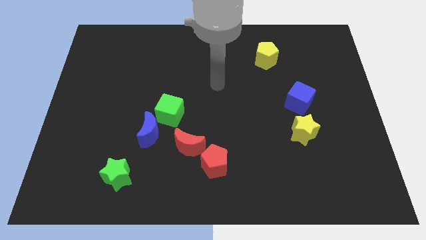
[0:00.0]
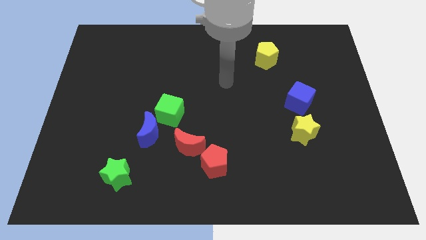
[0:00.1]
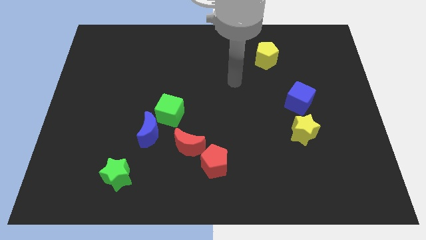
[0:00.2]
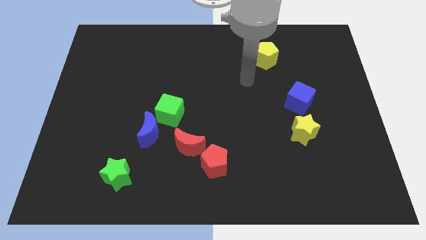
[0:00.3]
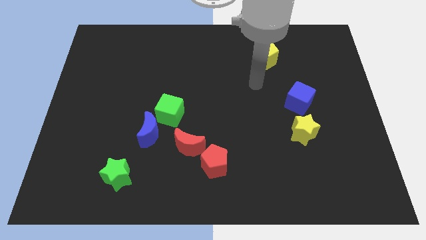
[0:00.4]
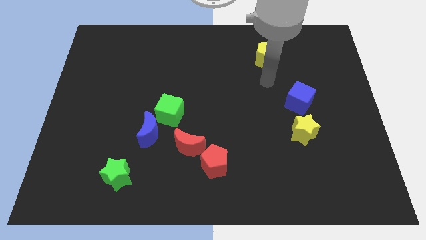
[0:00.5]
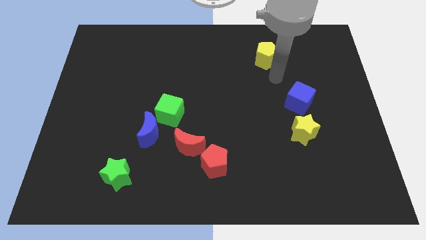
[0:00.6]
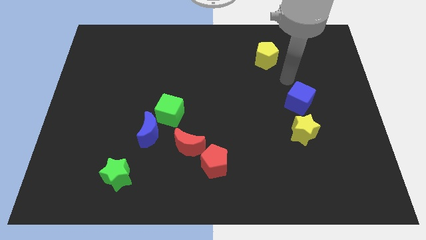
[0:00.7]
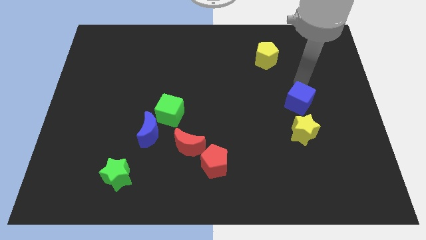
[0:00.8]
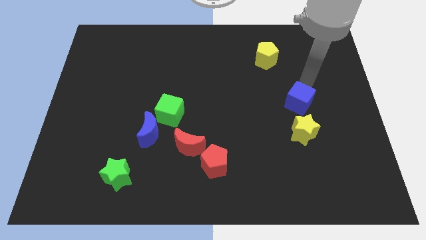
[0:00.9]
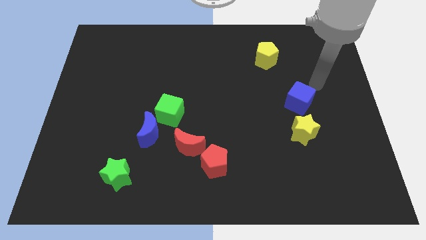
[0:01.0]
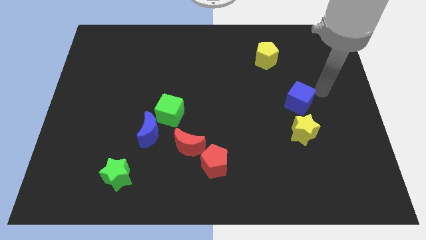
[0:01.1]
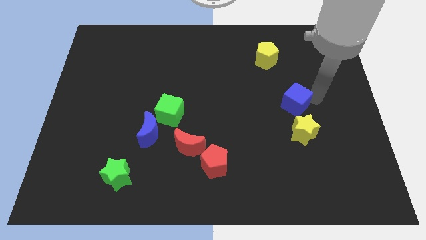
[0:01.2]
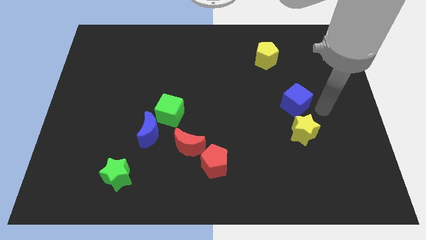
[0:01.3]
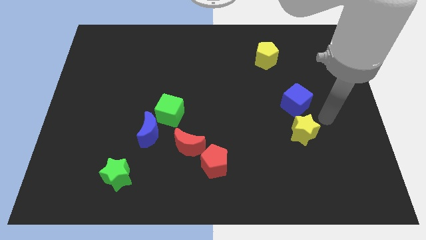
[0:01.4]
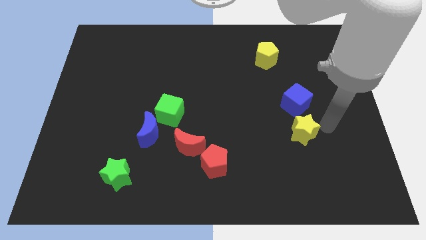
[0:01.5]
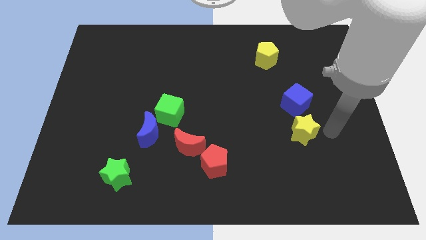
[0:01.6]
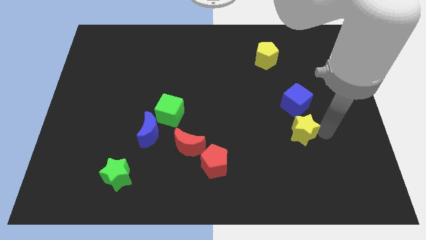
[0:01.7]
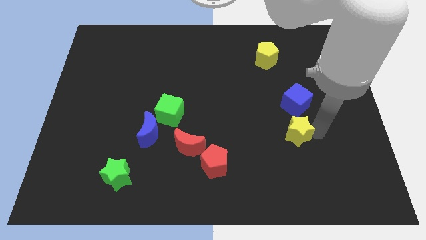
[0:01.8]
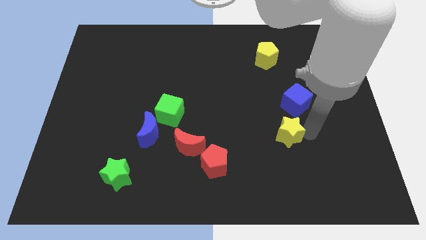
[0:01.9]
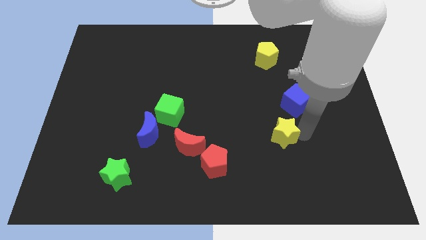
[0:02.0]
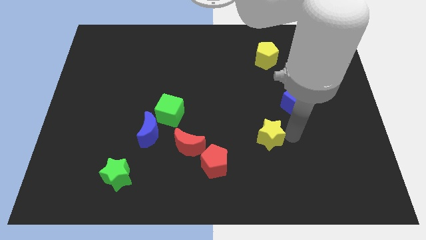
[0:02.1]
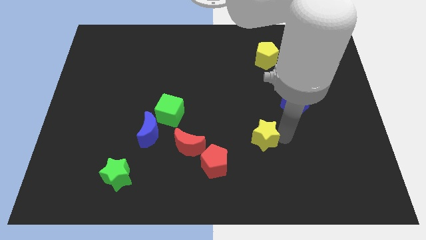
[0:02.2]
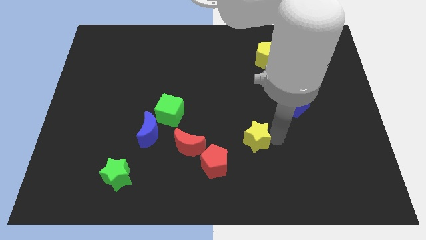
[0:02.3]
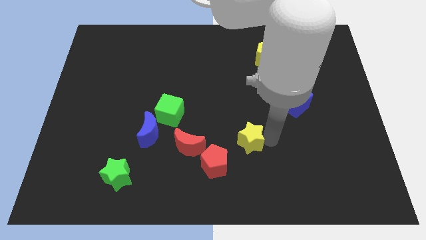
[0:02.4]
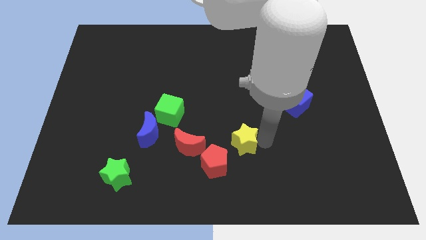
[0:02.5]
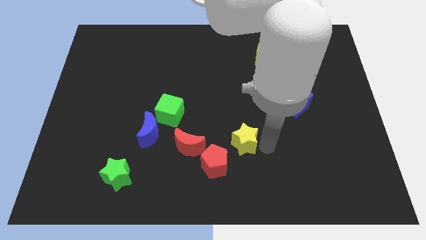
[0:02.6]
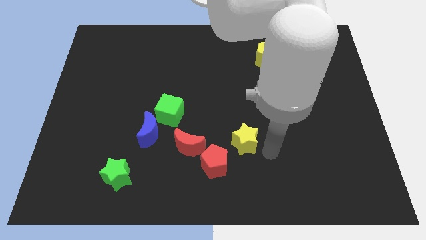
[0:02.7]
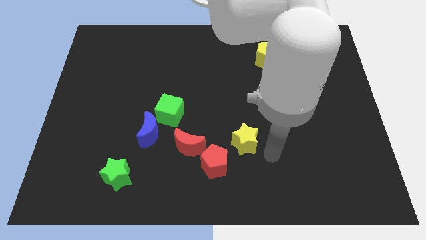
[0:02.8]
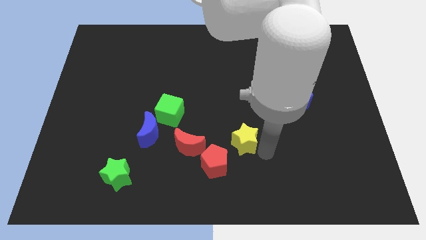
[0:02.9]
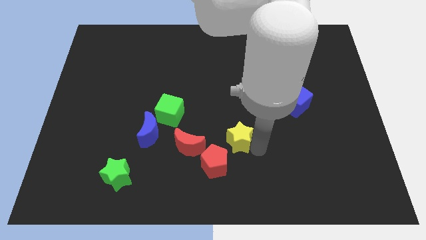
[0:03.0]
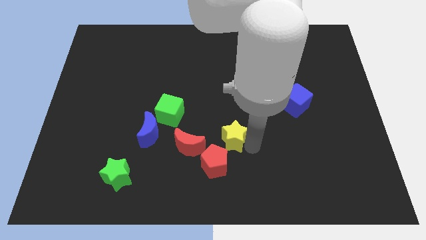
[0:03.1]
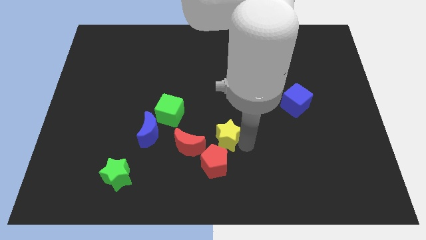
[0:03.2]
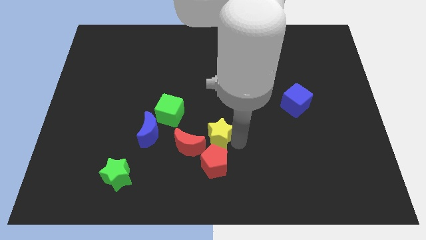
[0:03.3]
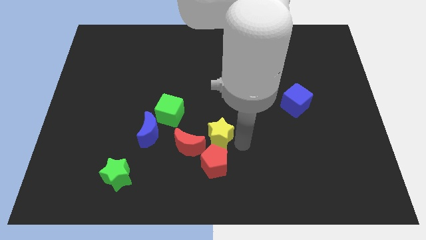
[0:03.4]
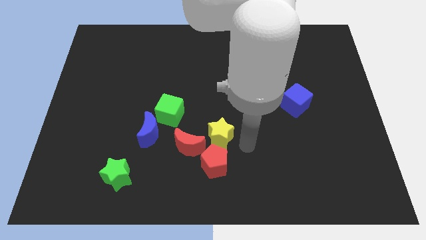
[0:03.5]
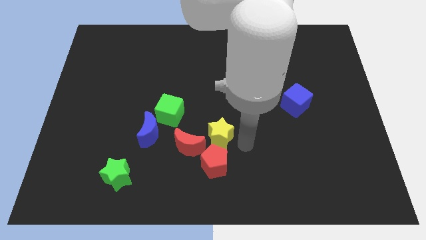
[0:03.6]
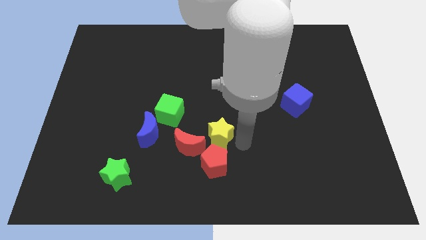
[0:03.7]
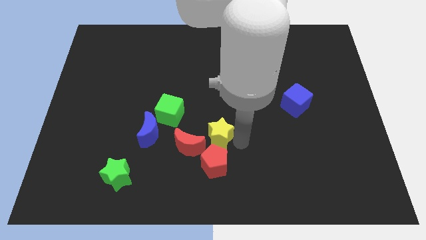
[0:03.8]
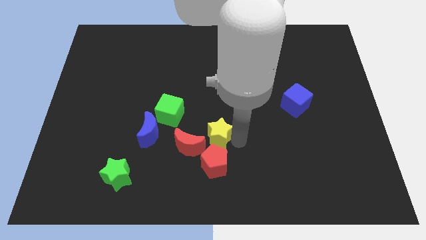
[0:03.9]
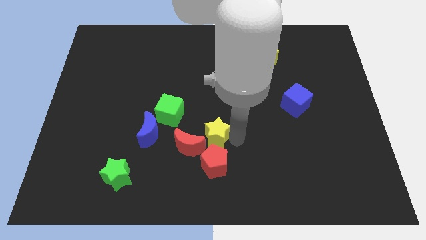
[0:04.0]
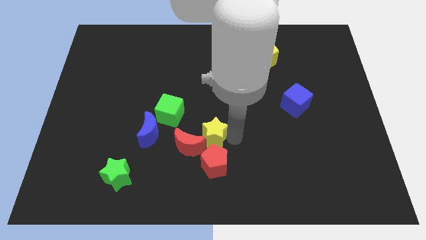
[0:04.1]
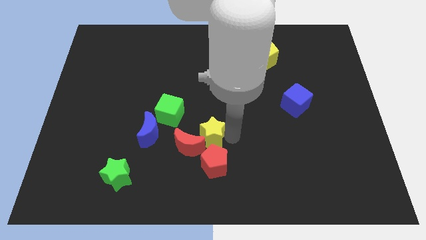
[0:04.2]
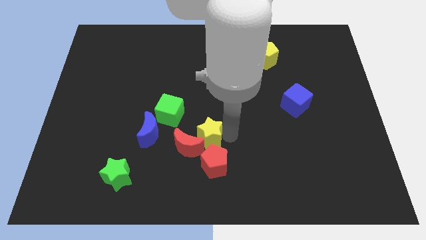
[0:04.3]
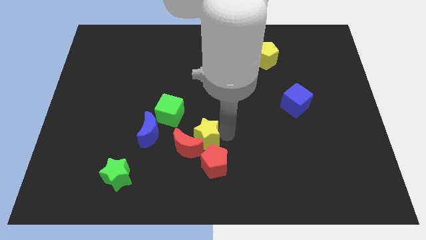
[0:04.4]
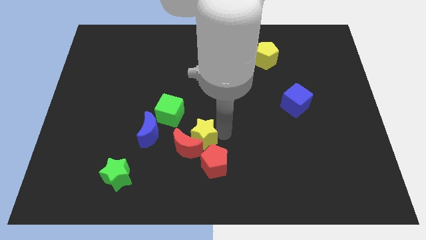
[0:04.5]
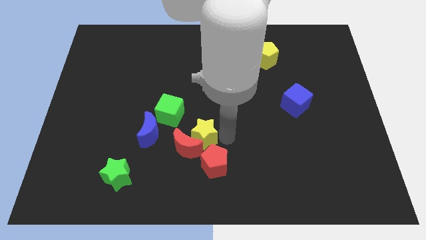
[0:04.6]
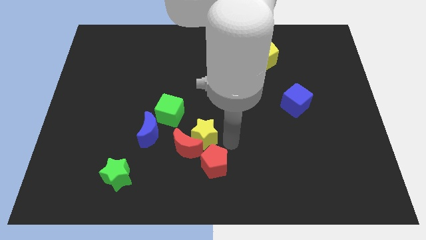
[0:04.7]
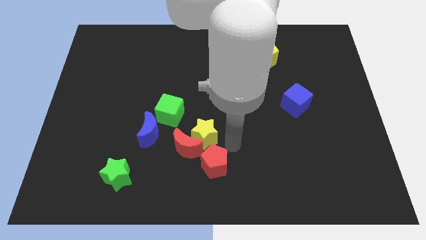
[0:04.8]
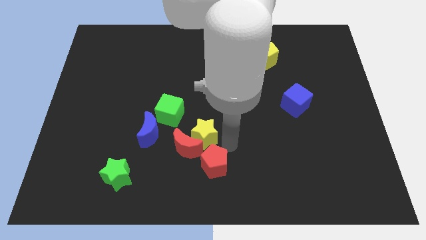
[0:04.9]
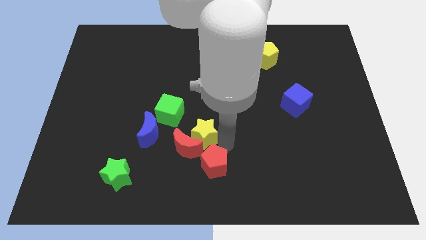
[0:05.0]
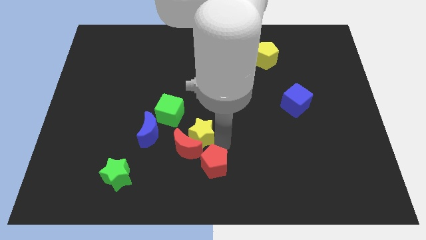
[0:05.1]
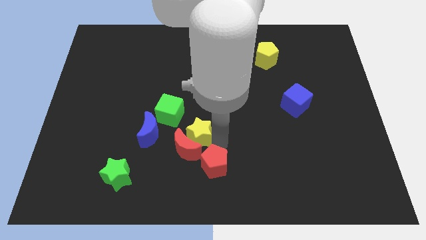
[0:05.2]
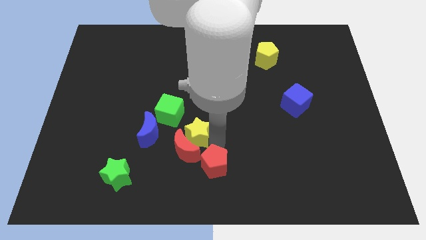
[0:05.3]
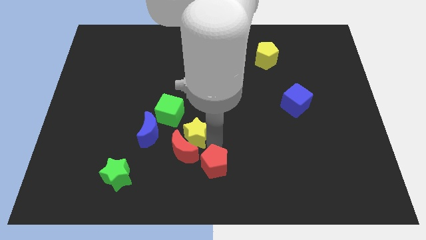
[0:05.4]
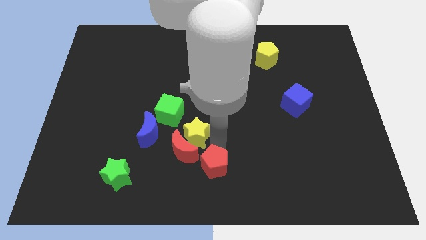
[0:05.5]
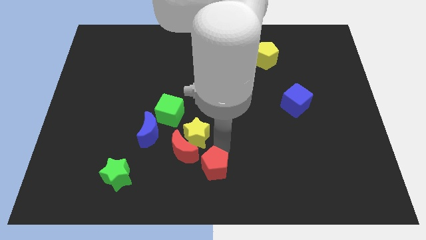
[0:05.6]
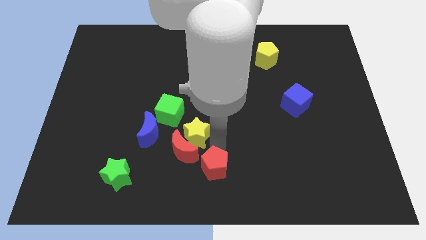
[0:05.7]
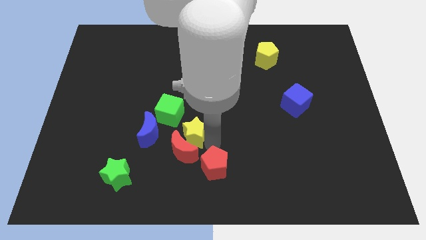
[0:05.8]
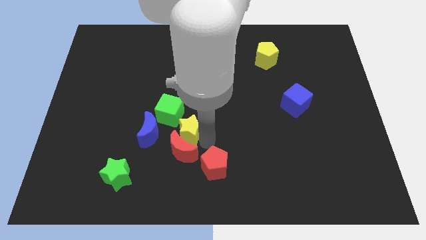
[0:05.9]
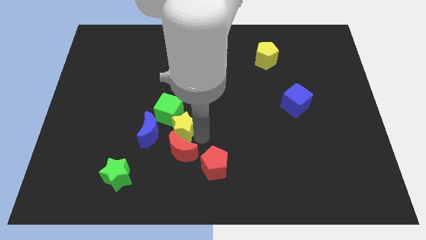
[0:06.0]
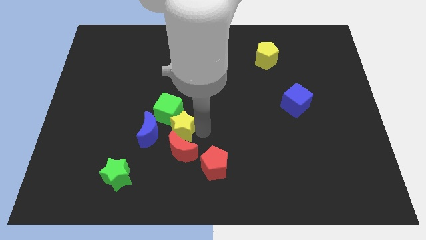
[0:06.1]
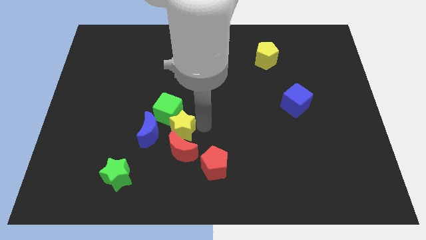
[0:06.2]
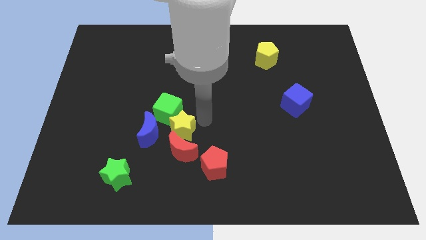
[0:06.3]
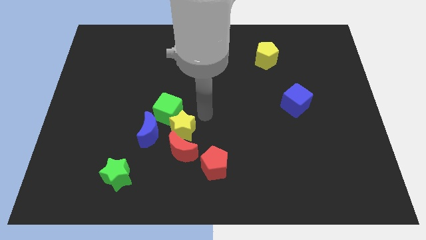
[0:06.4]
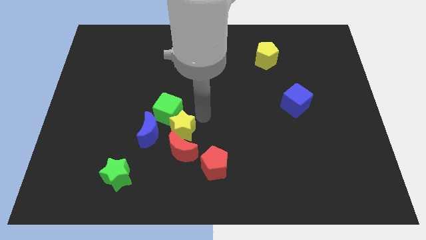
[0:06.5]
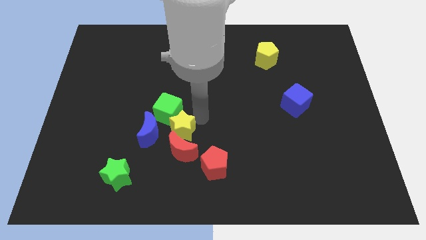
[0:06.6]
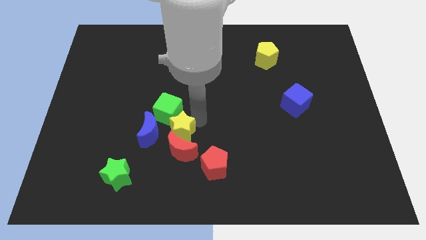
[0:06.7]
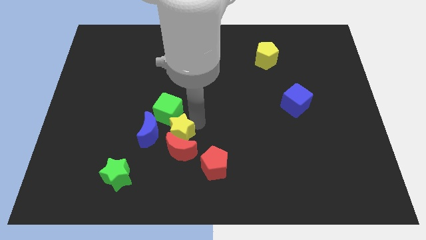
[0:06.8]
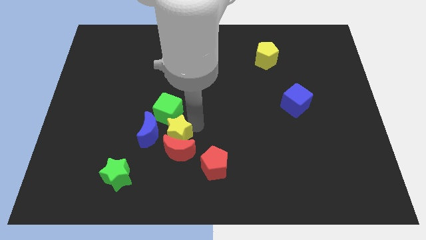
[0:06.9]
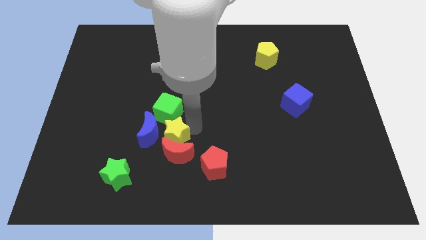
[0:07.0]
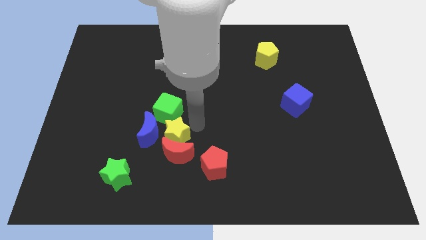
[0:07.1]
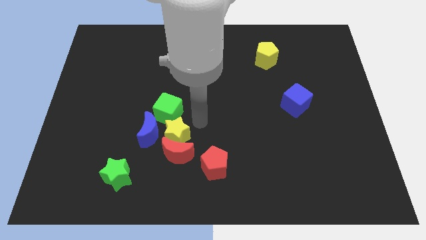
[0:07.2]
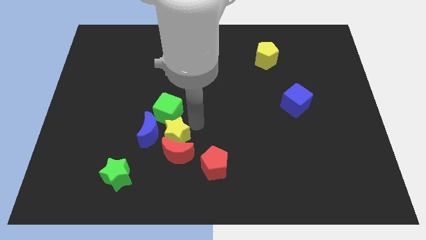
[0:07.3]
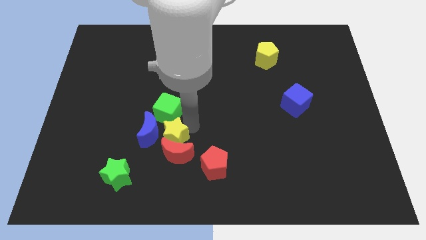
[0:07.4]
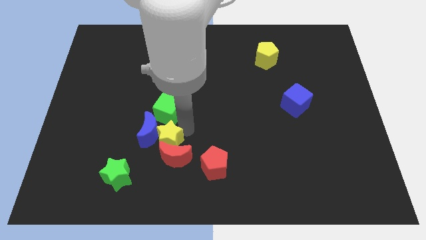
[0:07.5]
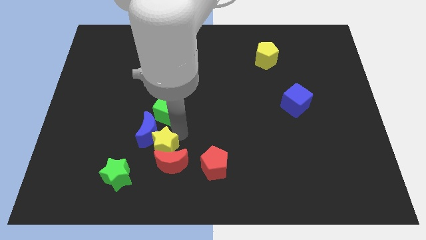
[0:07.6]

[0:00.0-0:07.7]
slide the yellow star diagonally up and to the right of the green star
